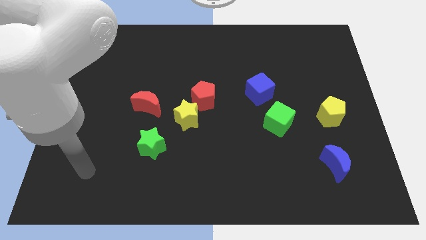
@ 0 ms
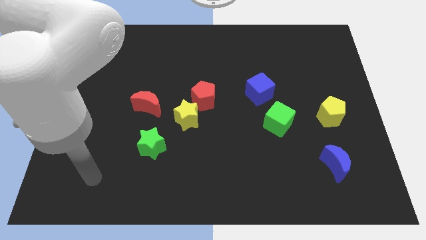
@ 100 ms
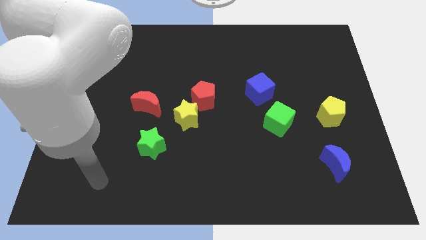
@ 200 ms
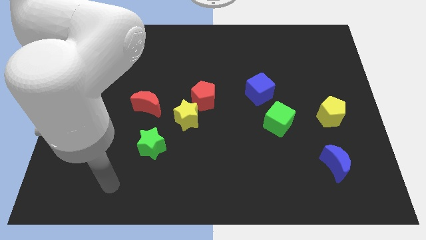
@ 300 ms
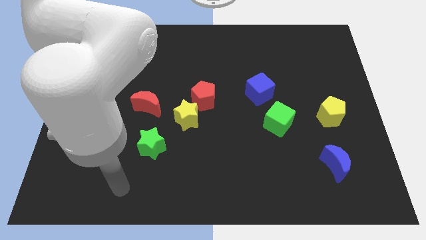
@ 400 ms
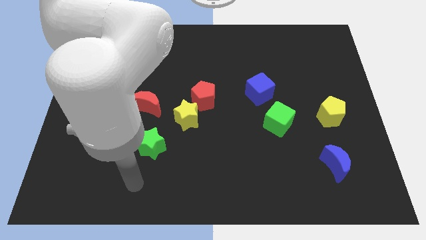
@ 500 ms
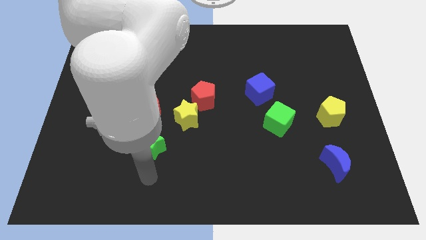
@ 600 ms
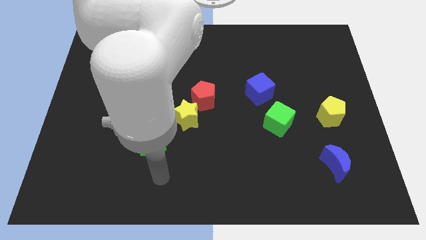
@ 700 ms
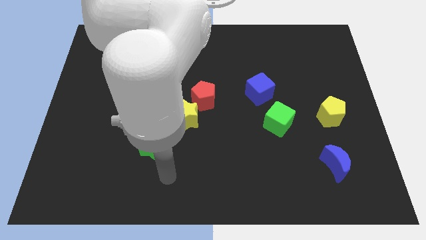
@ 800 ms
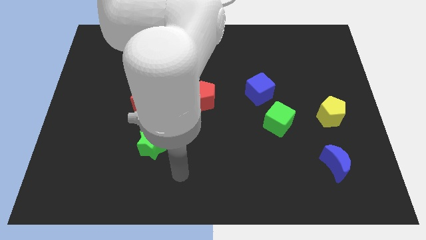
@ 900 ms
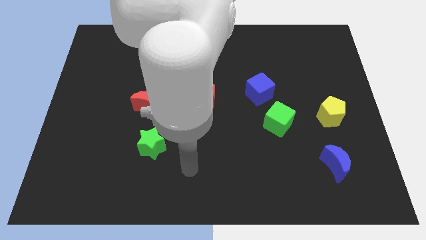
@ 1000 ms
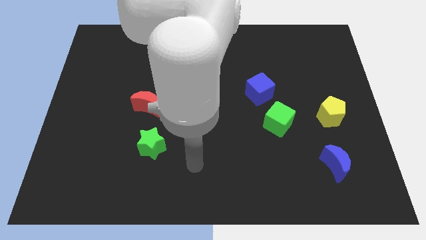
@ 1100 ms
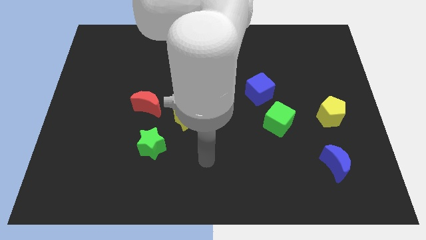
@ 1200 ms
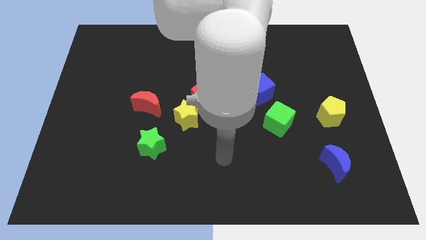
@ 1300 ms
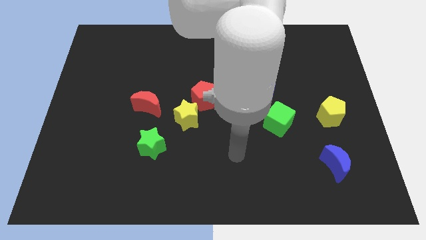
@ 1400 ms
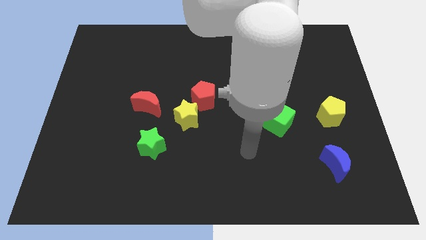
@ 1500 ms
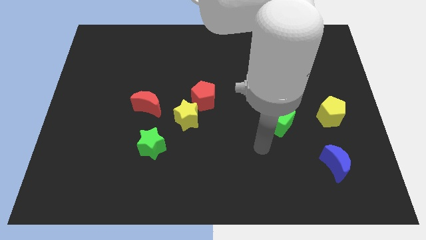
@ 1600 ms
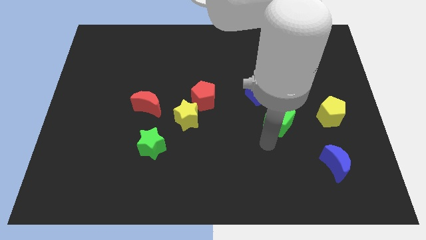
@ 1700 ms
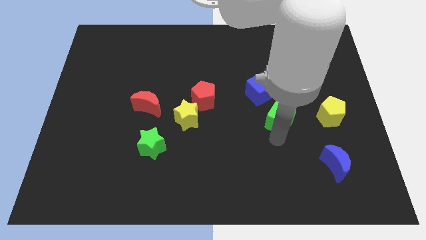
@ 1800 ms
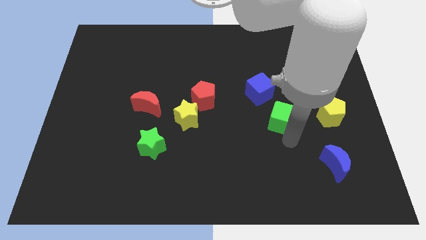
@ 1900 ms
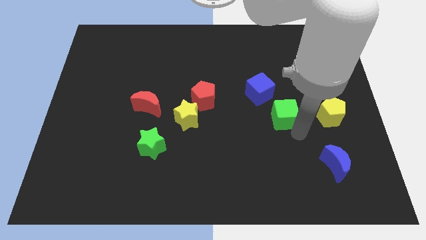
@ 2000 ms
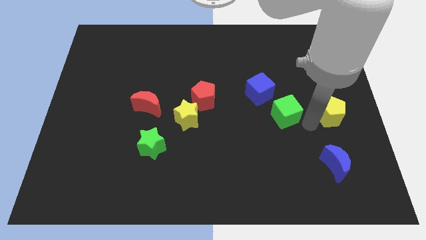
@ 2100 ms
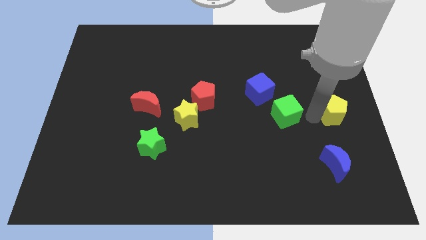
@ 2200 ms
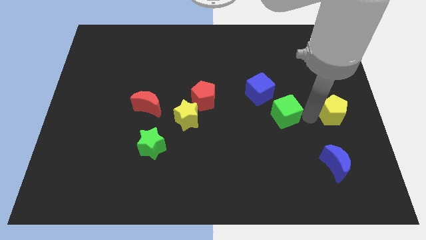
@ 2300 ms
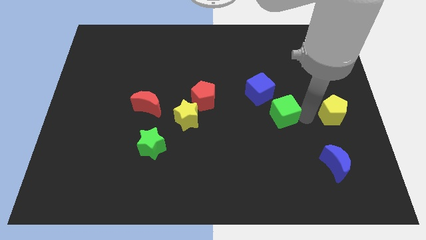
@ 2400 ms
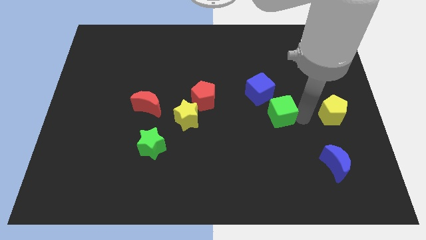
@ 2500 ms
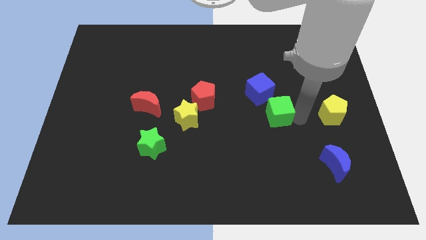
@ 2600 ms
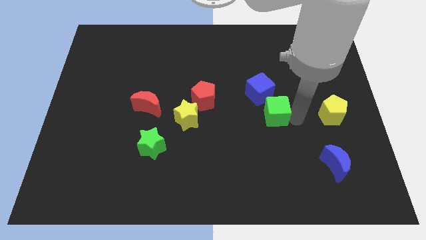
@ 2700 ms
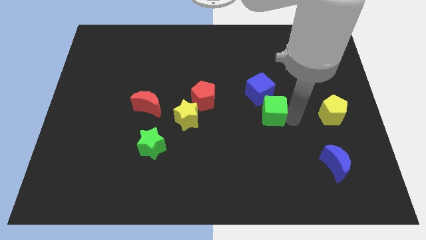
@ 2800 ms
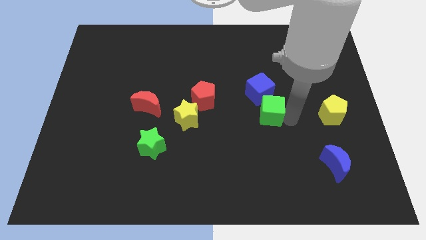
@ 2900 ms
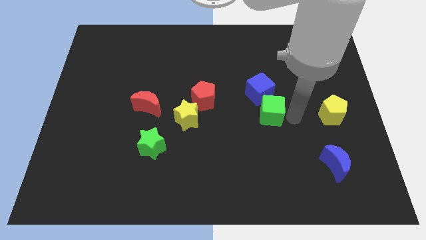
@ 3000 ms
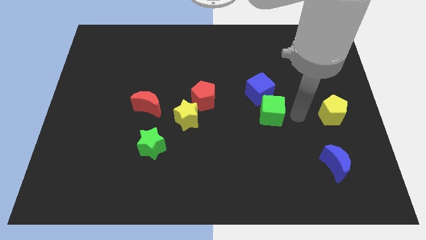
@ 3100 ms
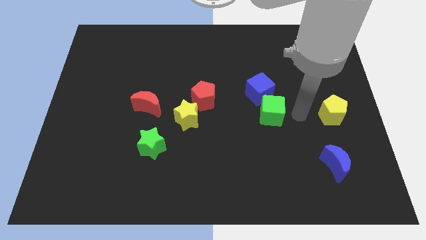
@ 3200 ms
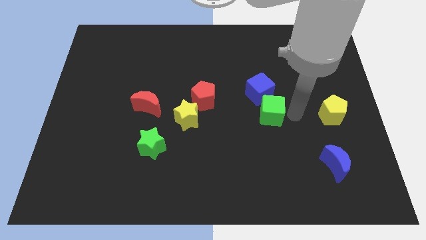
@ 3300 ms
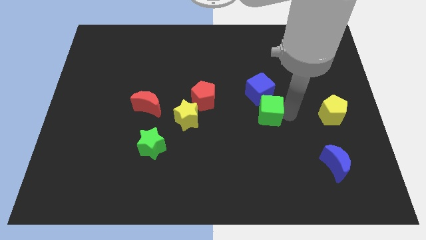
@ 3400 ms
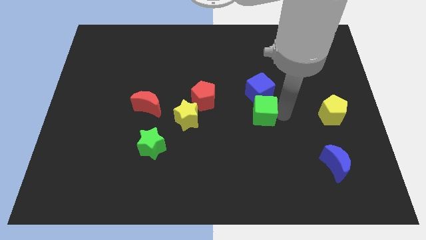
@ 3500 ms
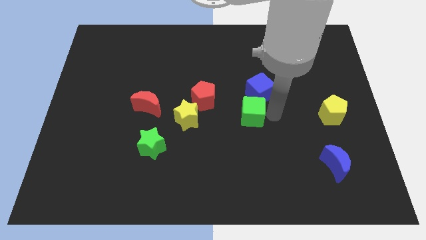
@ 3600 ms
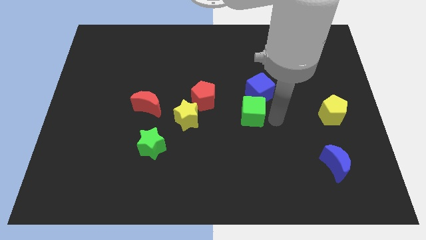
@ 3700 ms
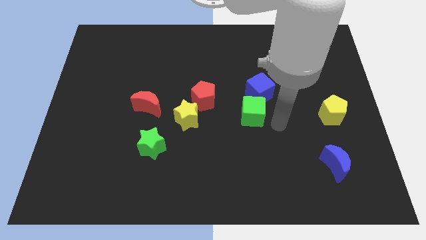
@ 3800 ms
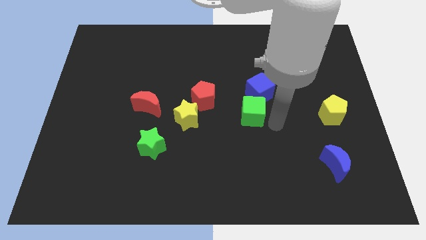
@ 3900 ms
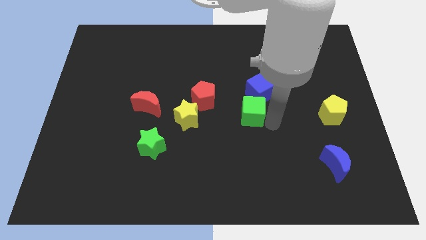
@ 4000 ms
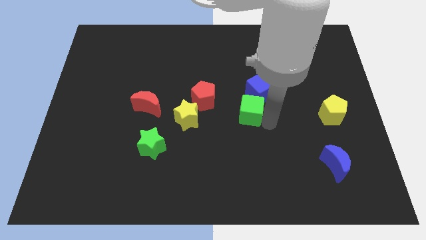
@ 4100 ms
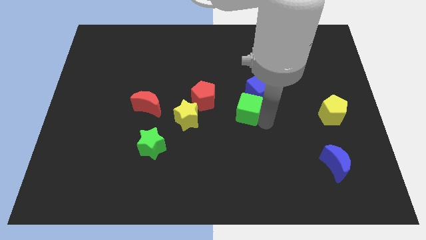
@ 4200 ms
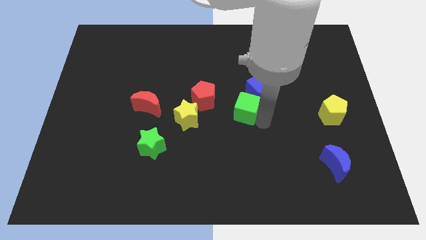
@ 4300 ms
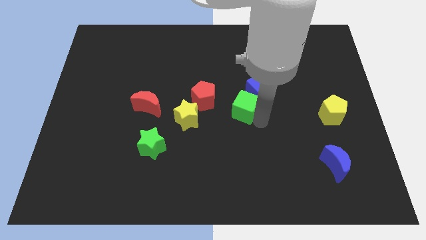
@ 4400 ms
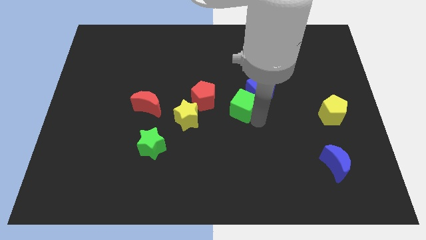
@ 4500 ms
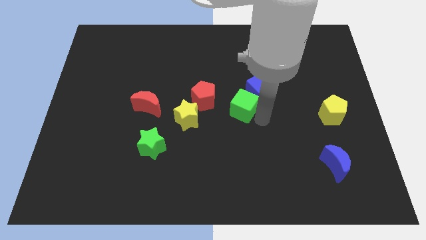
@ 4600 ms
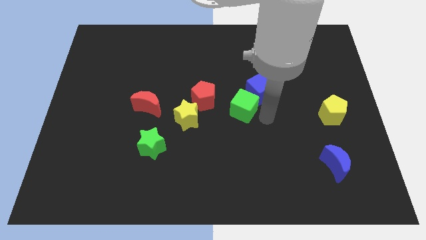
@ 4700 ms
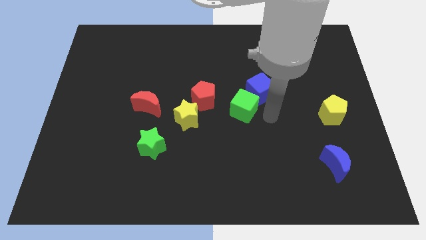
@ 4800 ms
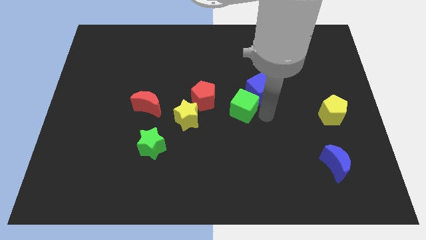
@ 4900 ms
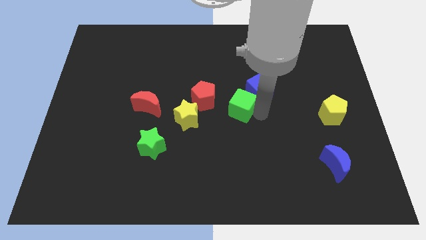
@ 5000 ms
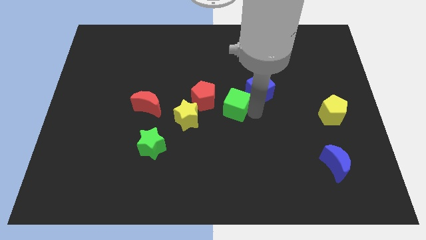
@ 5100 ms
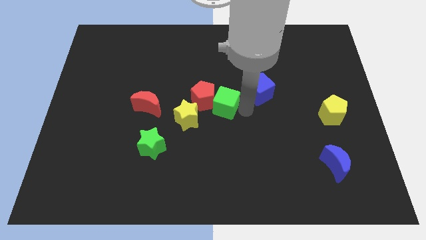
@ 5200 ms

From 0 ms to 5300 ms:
move the green cube next to the red pentagon

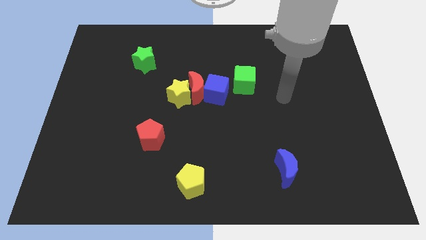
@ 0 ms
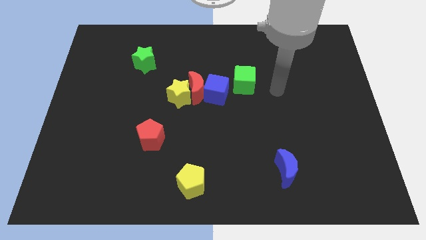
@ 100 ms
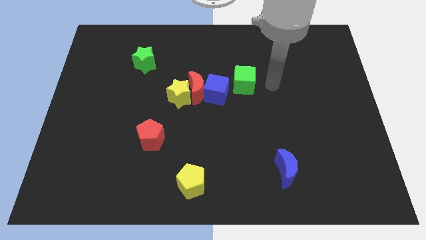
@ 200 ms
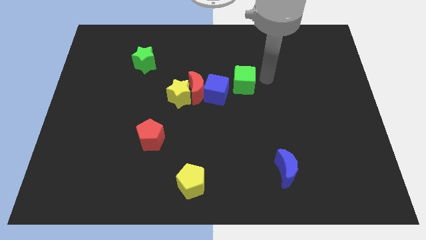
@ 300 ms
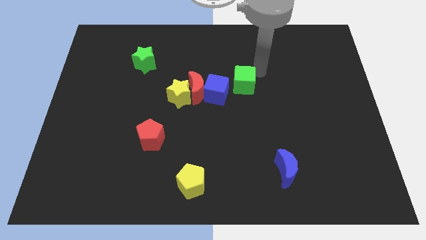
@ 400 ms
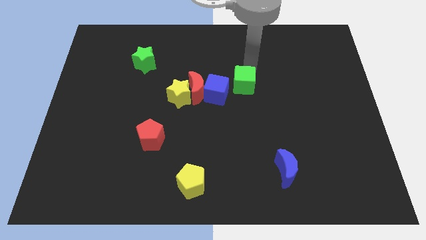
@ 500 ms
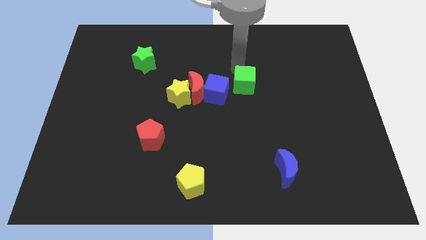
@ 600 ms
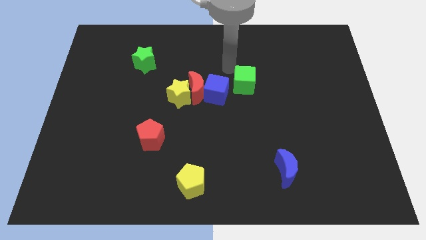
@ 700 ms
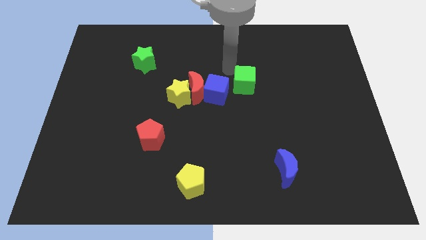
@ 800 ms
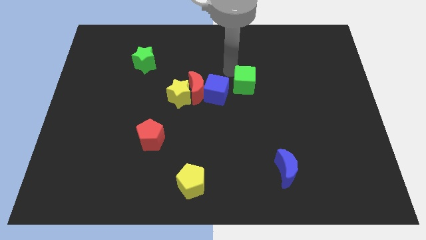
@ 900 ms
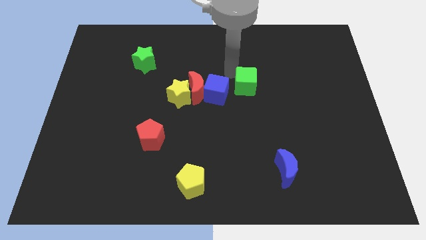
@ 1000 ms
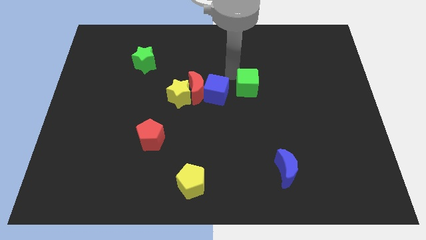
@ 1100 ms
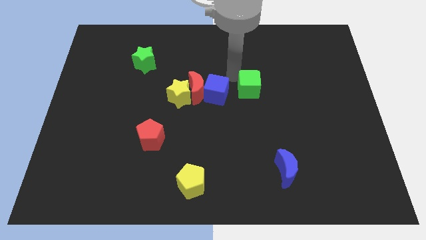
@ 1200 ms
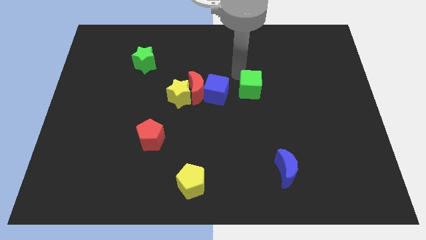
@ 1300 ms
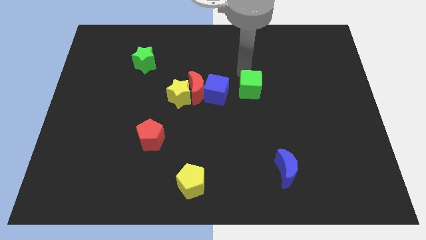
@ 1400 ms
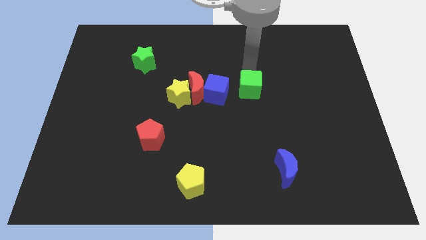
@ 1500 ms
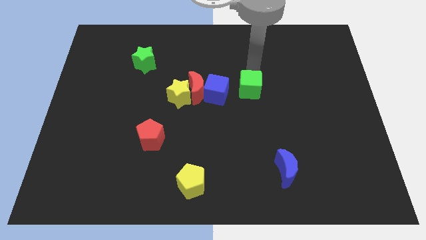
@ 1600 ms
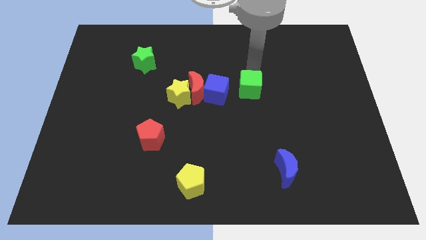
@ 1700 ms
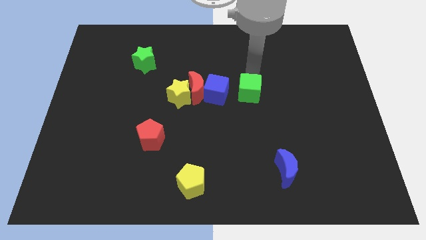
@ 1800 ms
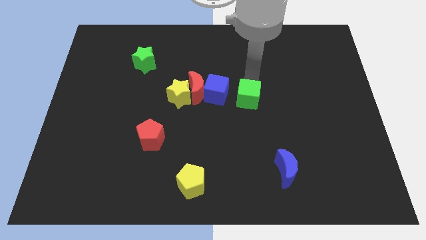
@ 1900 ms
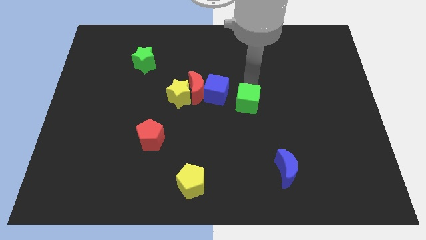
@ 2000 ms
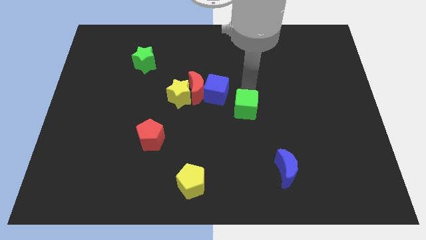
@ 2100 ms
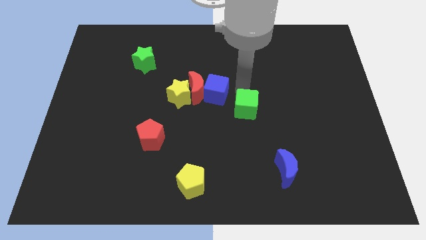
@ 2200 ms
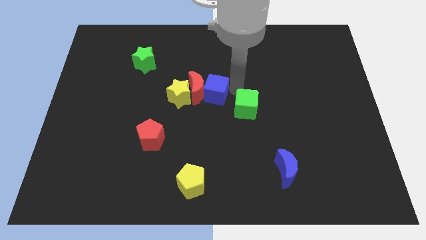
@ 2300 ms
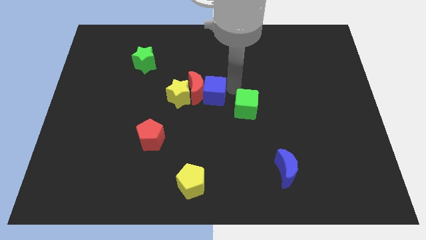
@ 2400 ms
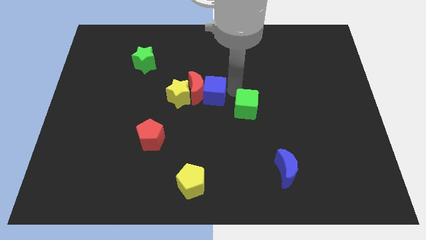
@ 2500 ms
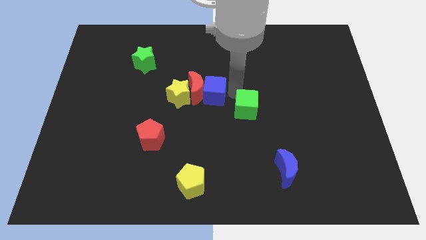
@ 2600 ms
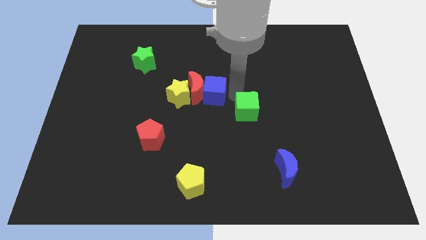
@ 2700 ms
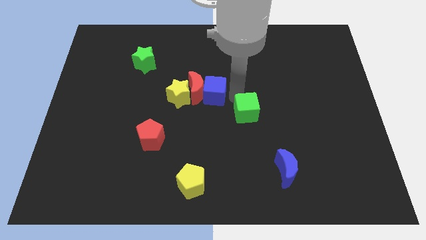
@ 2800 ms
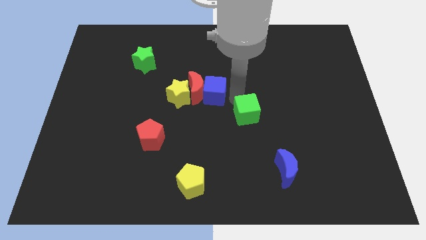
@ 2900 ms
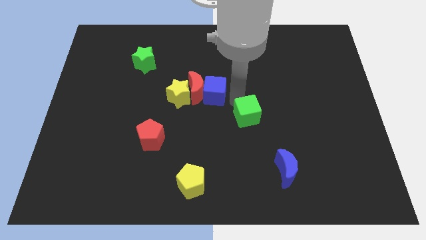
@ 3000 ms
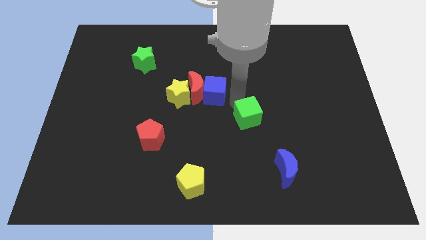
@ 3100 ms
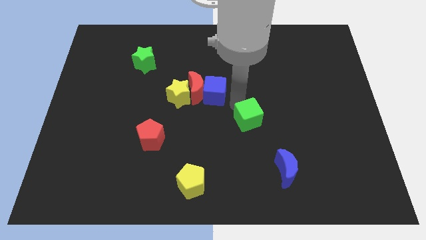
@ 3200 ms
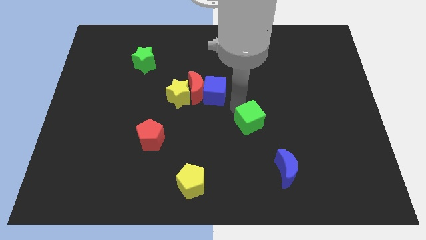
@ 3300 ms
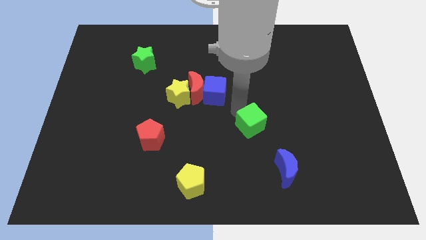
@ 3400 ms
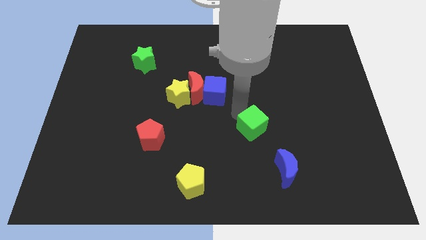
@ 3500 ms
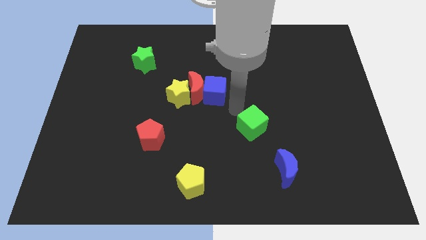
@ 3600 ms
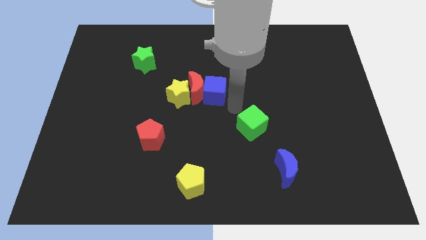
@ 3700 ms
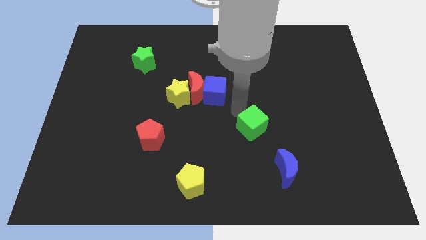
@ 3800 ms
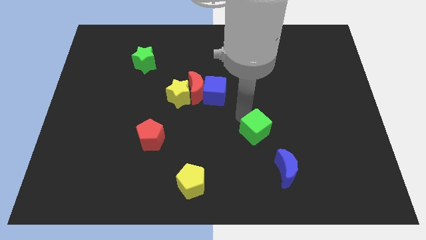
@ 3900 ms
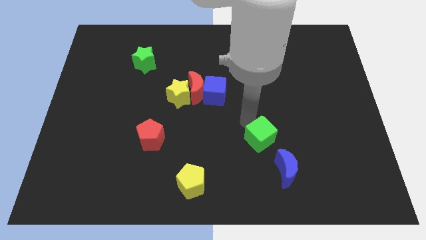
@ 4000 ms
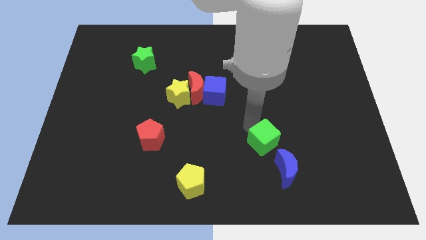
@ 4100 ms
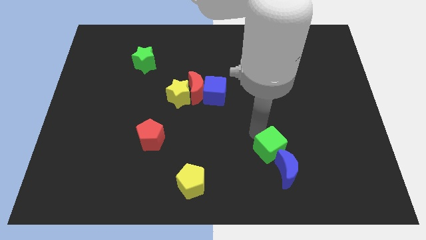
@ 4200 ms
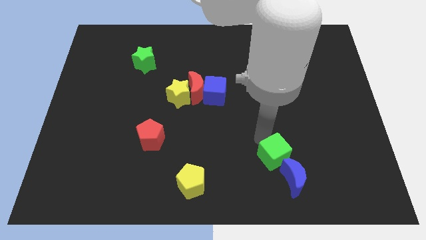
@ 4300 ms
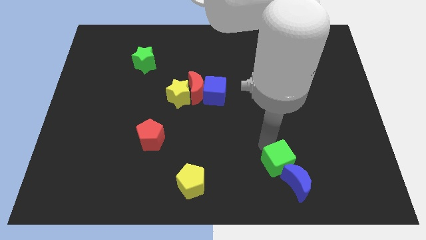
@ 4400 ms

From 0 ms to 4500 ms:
slide the green cube towards the blue moon
